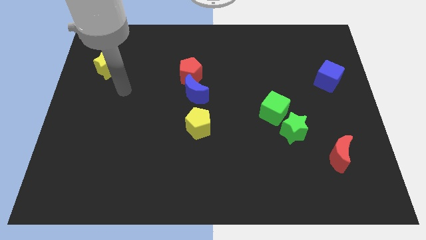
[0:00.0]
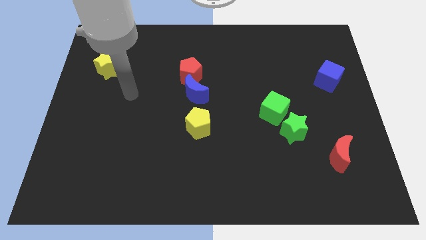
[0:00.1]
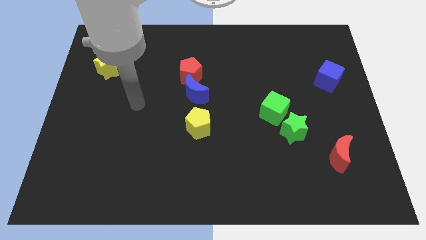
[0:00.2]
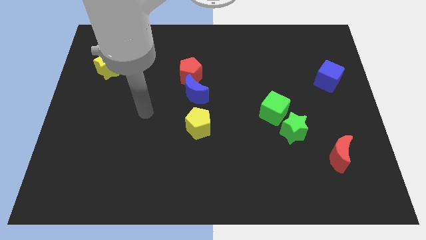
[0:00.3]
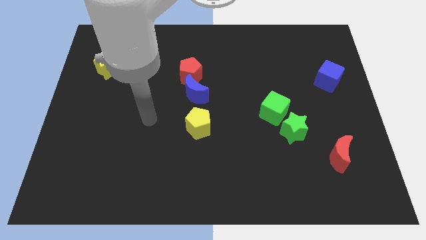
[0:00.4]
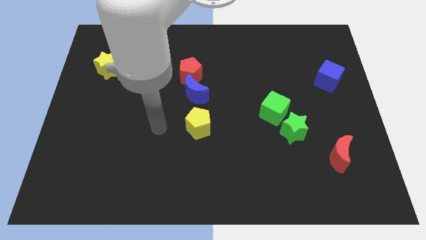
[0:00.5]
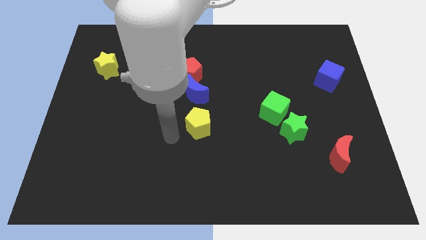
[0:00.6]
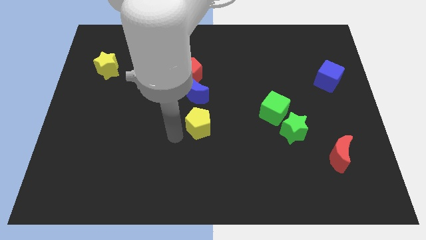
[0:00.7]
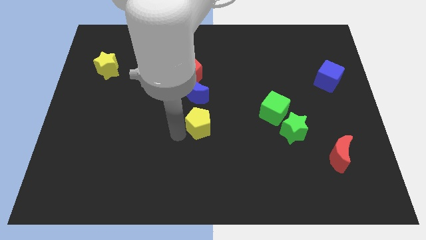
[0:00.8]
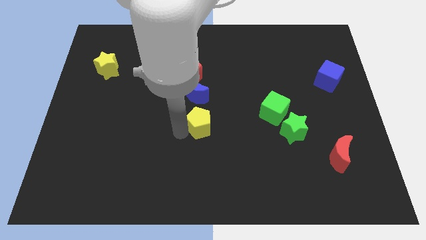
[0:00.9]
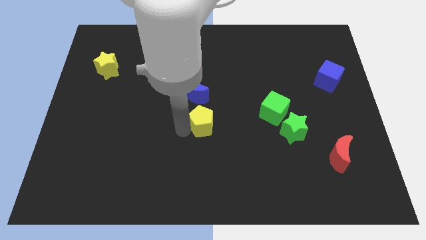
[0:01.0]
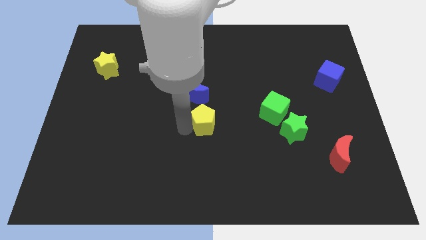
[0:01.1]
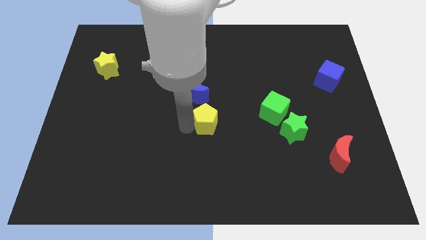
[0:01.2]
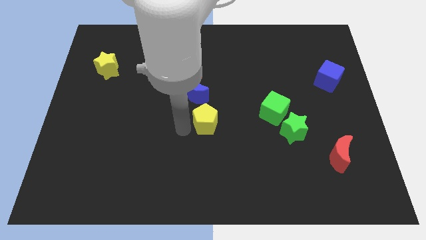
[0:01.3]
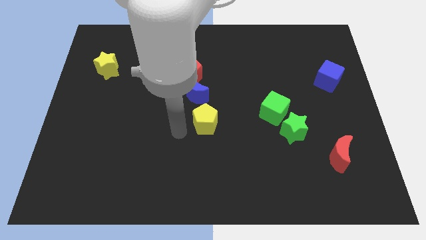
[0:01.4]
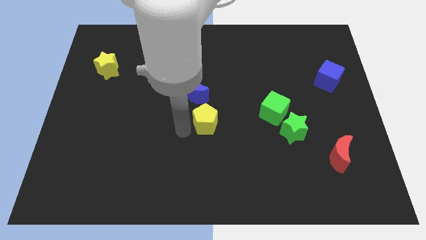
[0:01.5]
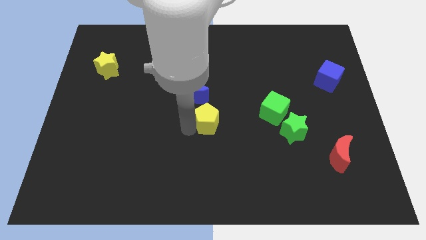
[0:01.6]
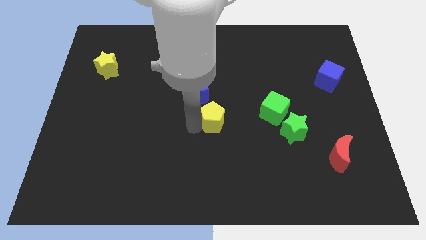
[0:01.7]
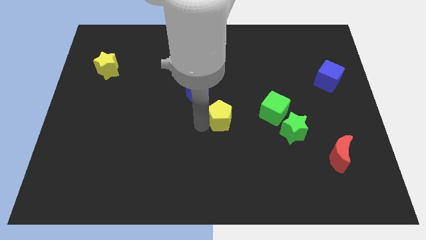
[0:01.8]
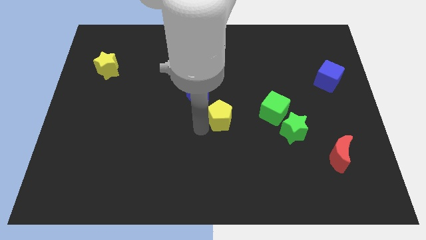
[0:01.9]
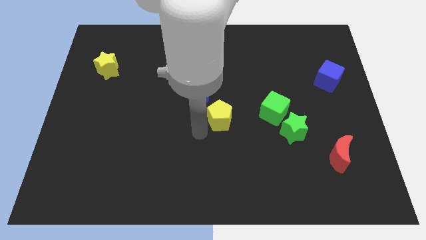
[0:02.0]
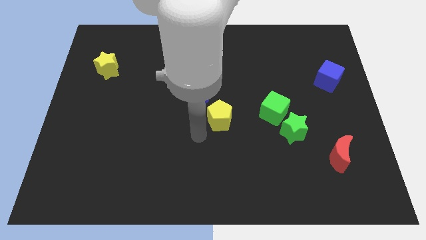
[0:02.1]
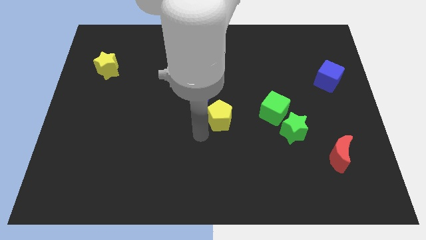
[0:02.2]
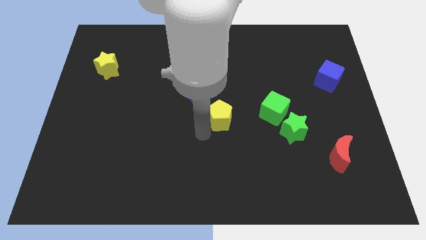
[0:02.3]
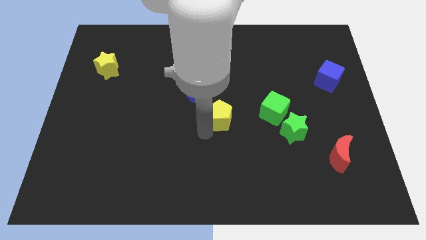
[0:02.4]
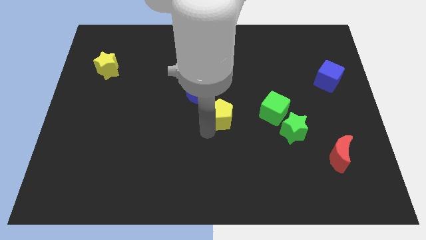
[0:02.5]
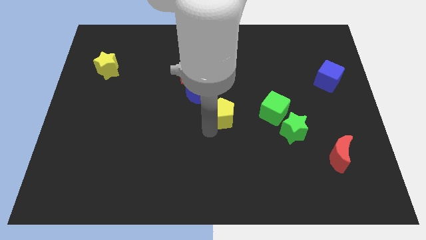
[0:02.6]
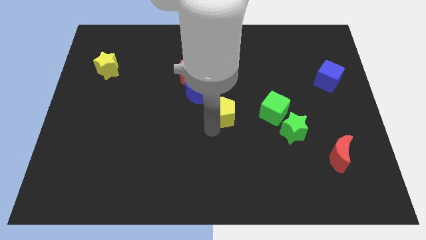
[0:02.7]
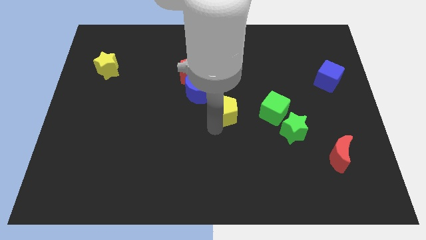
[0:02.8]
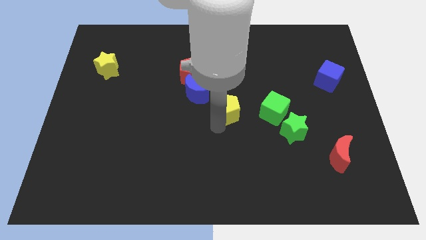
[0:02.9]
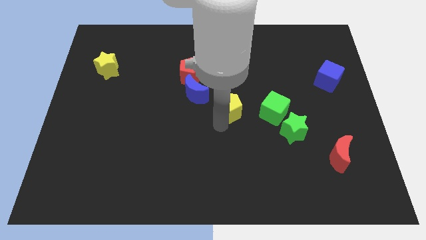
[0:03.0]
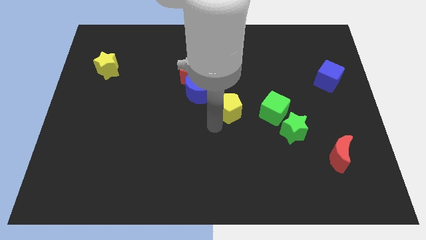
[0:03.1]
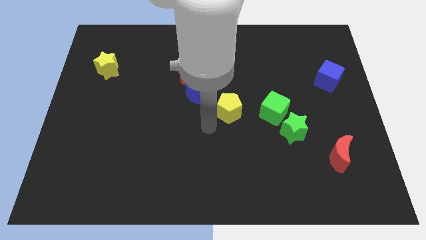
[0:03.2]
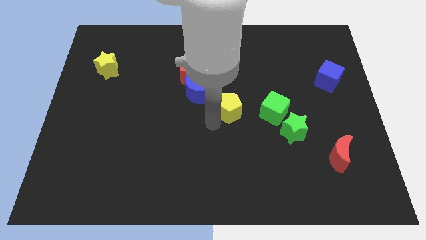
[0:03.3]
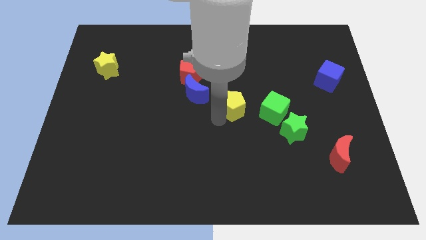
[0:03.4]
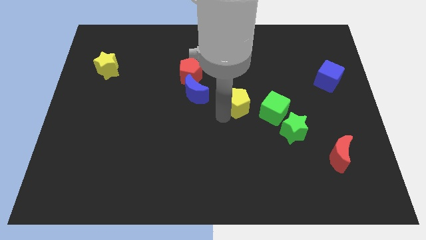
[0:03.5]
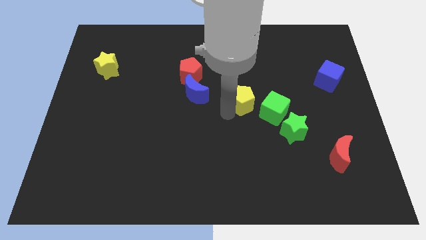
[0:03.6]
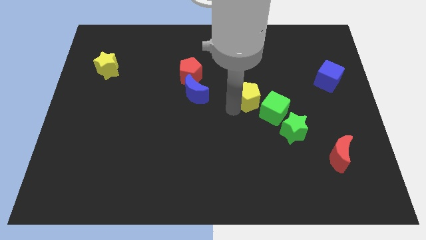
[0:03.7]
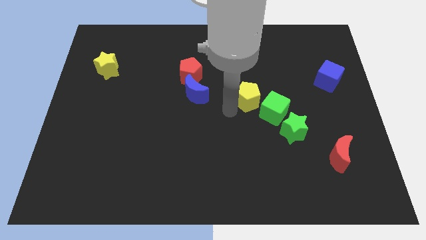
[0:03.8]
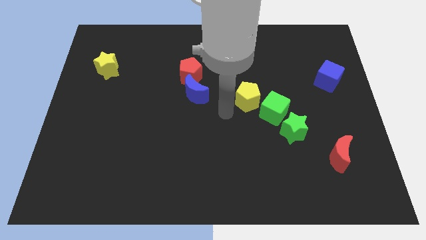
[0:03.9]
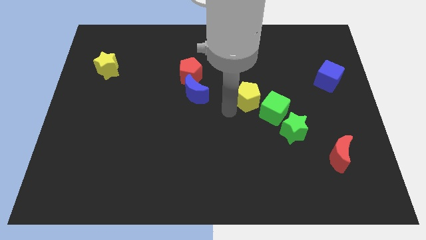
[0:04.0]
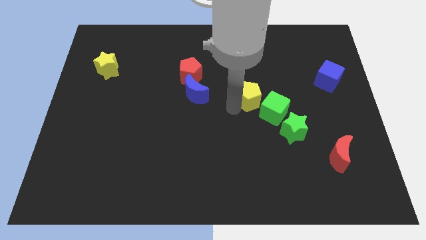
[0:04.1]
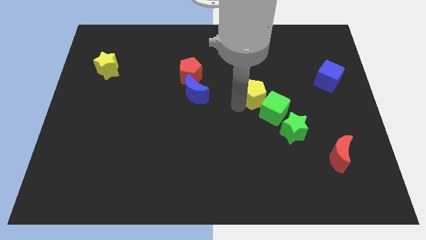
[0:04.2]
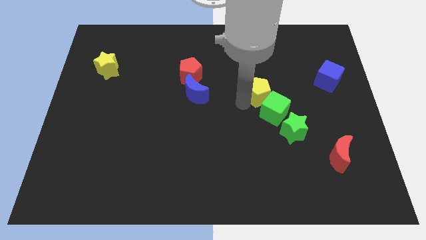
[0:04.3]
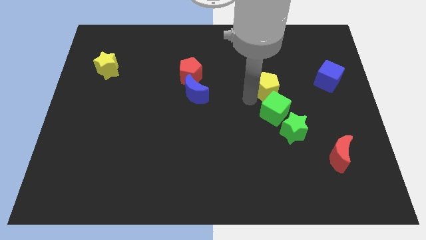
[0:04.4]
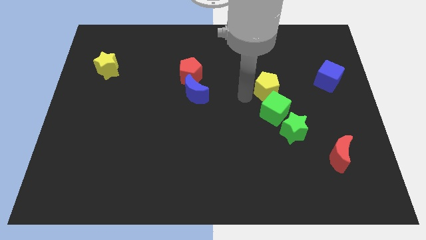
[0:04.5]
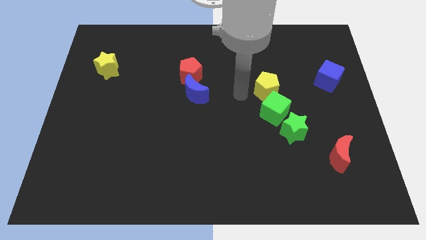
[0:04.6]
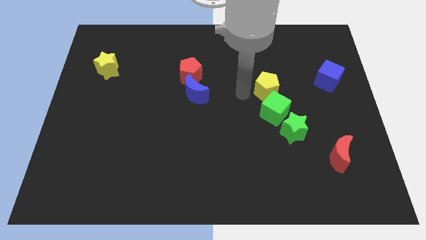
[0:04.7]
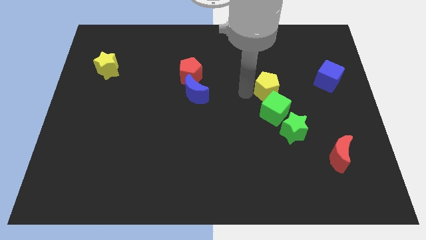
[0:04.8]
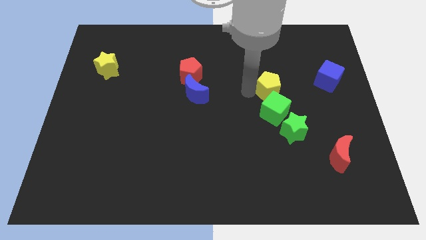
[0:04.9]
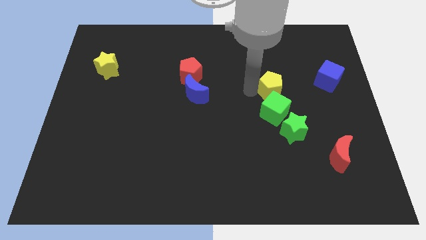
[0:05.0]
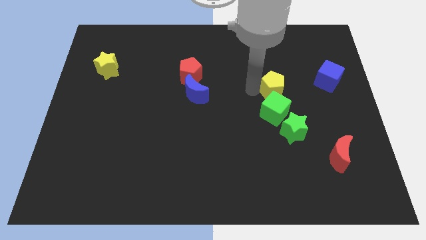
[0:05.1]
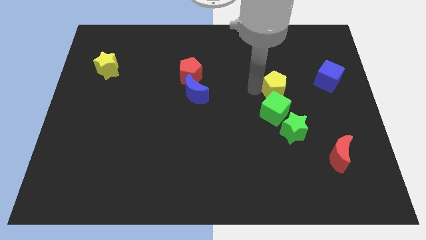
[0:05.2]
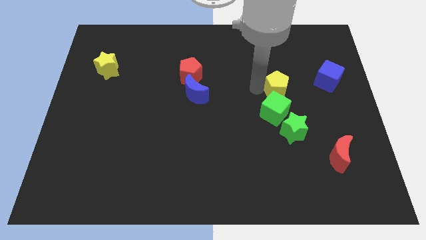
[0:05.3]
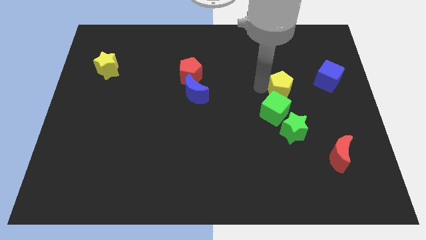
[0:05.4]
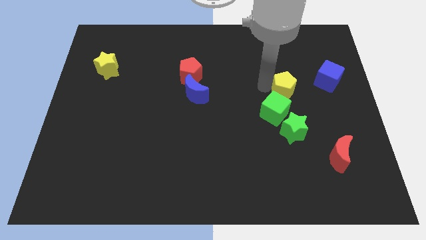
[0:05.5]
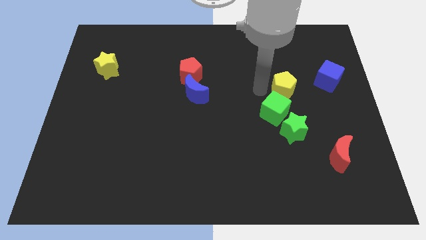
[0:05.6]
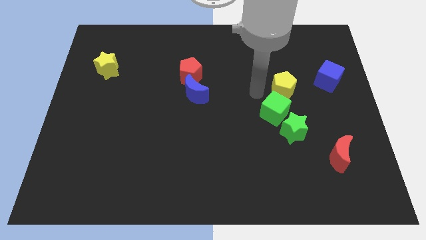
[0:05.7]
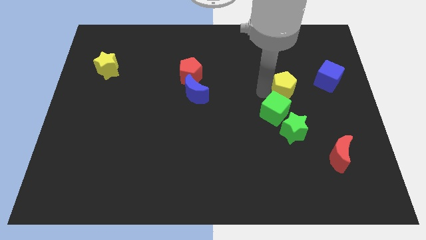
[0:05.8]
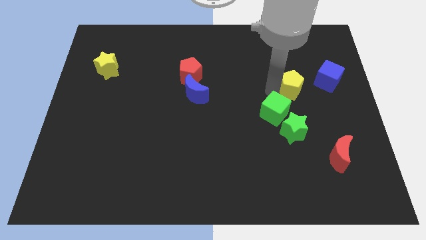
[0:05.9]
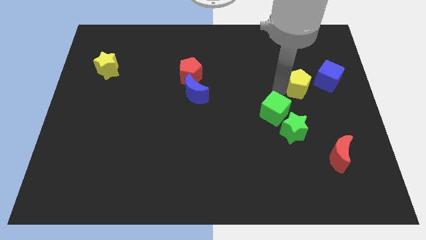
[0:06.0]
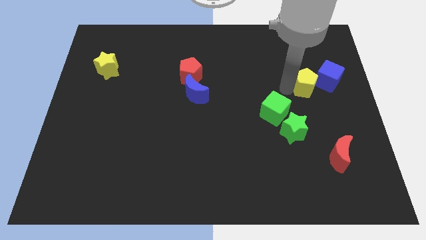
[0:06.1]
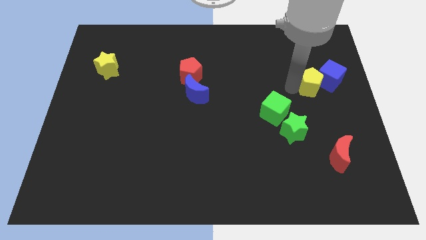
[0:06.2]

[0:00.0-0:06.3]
slide the yellow pentagon next to the blue cube

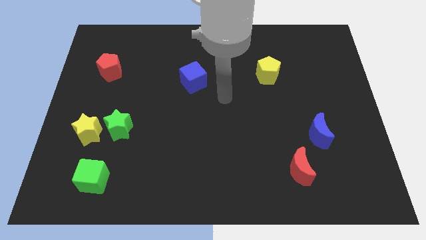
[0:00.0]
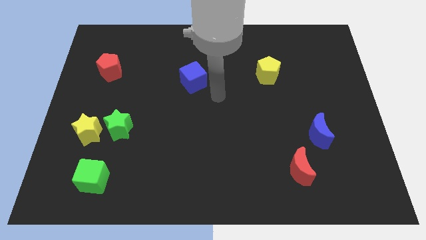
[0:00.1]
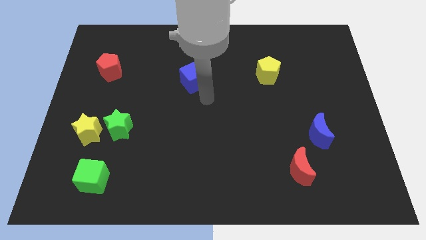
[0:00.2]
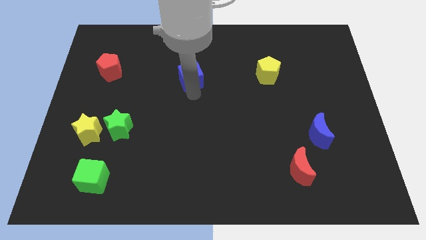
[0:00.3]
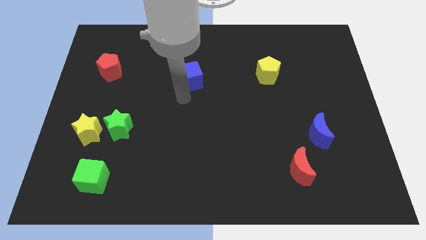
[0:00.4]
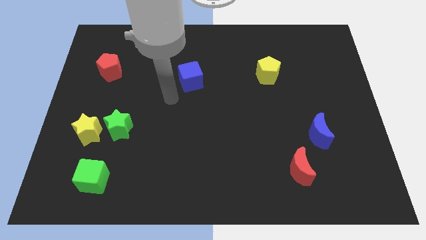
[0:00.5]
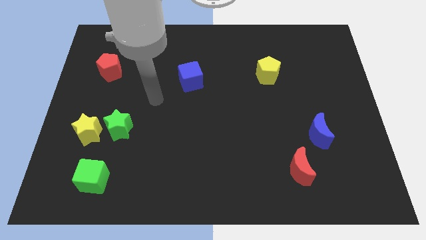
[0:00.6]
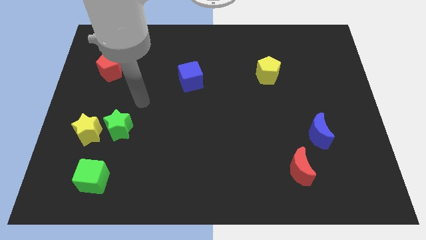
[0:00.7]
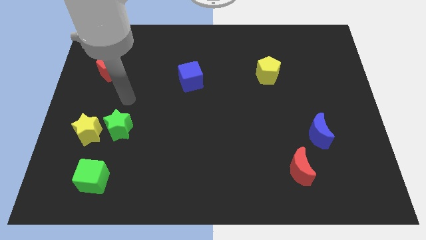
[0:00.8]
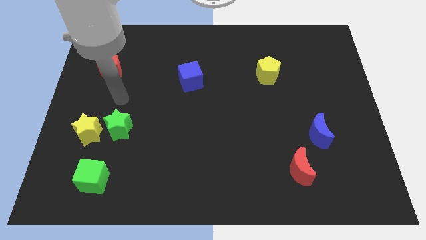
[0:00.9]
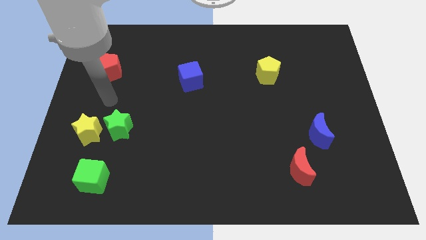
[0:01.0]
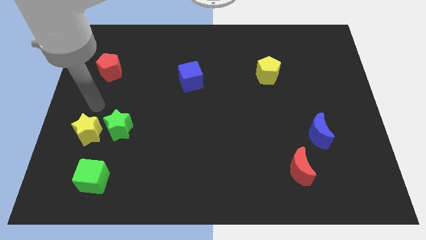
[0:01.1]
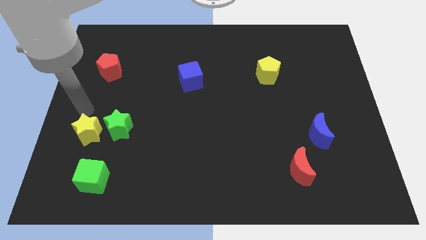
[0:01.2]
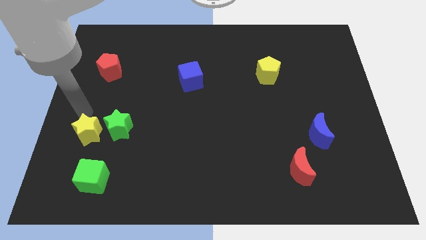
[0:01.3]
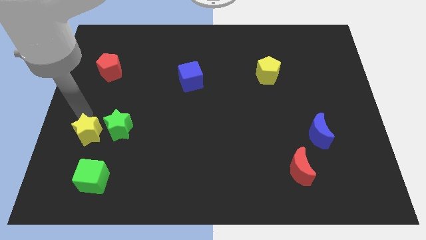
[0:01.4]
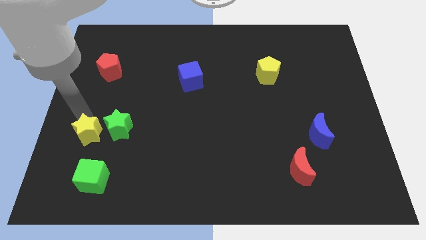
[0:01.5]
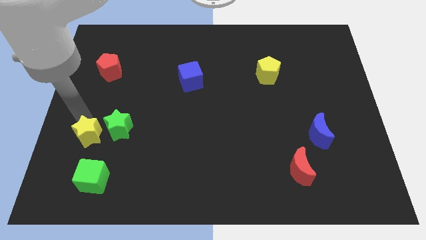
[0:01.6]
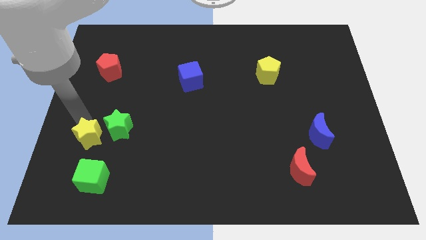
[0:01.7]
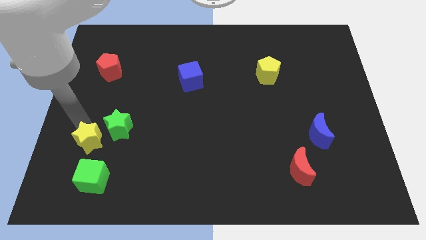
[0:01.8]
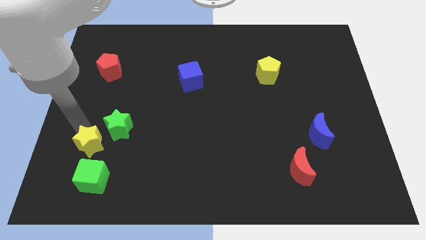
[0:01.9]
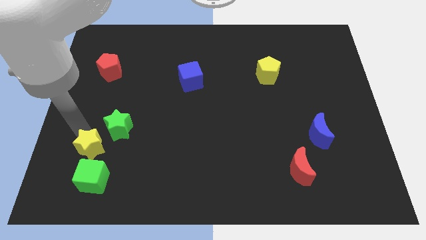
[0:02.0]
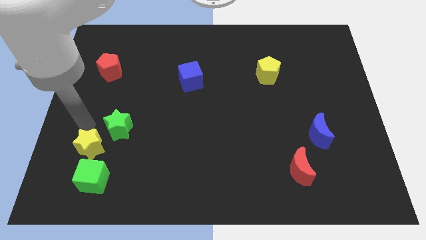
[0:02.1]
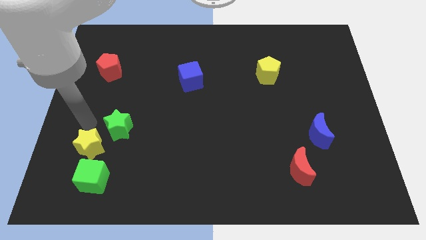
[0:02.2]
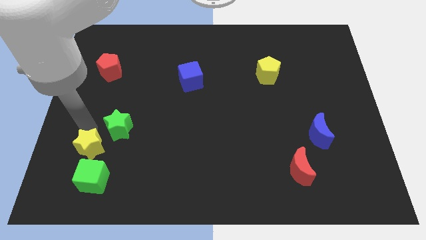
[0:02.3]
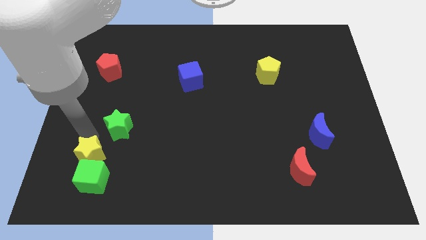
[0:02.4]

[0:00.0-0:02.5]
push the yellow star towards the green cube
